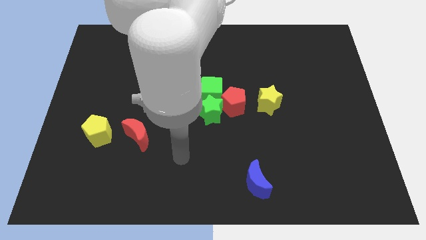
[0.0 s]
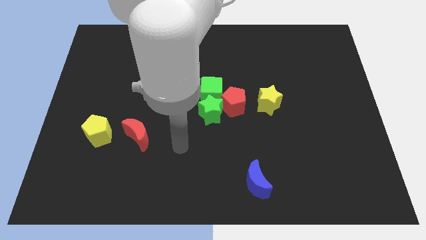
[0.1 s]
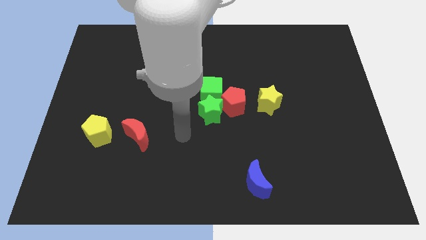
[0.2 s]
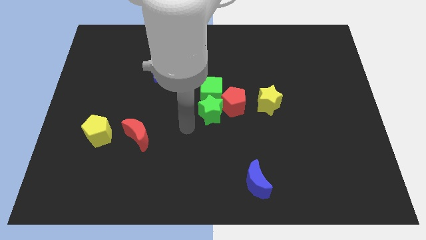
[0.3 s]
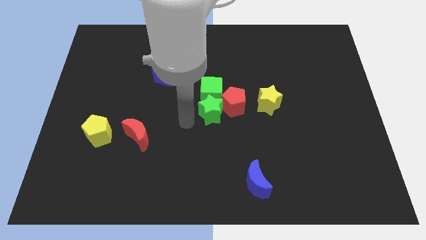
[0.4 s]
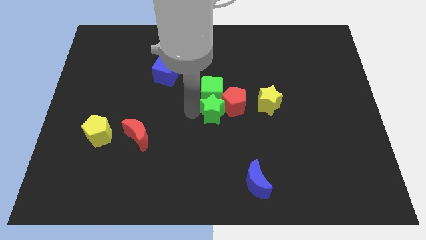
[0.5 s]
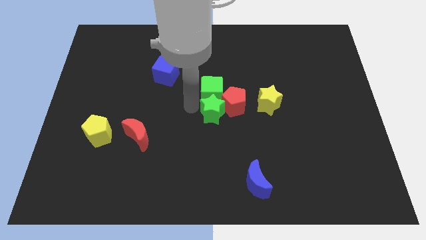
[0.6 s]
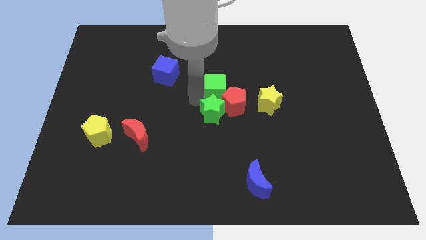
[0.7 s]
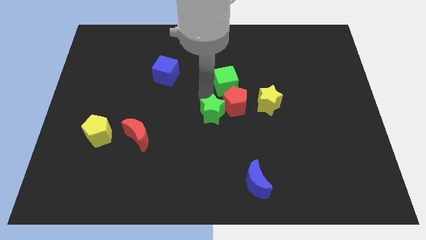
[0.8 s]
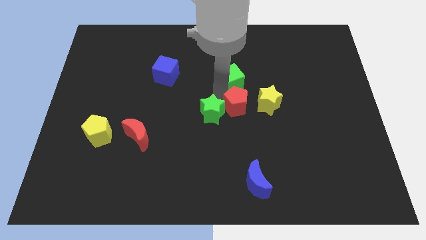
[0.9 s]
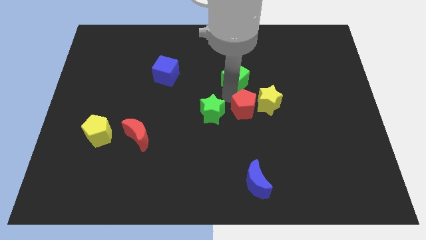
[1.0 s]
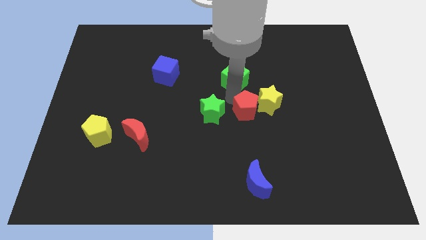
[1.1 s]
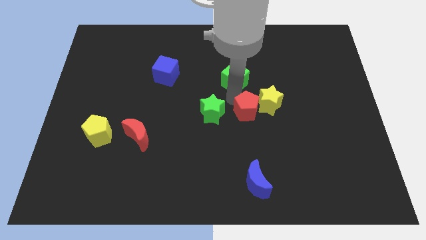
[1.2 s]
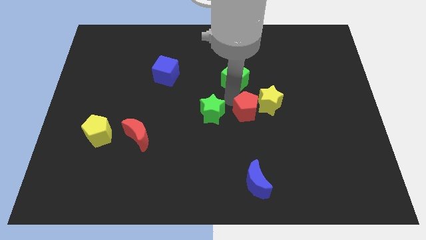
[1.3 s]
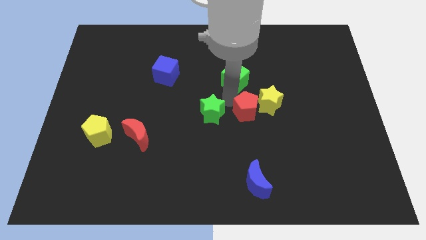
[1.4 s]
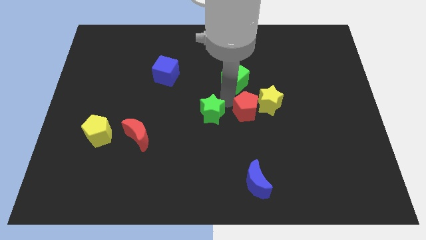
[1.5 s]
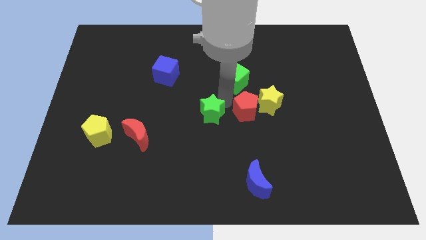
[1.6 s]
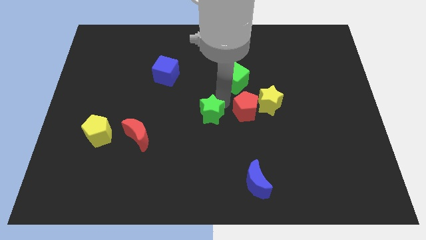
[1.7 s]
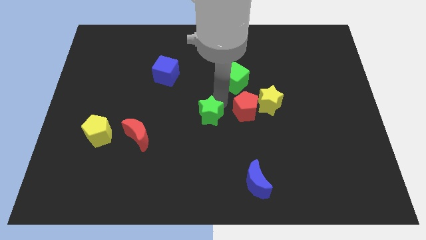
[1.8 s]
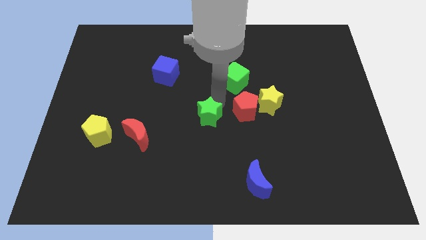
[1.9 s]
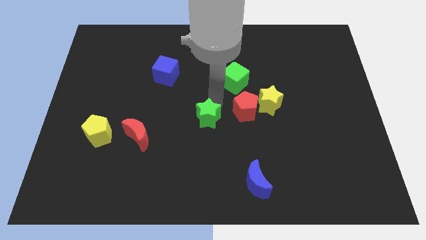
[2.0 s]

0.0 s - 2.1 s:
pull the green star apart from the green cube and red pentagon

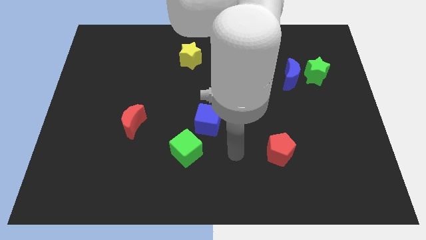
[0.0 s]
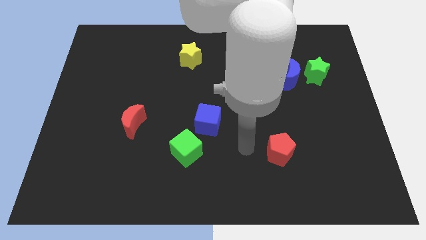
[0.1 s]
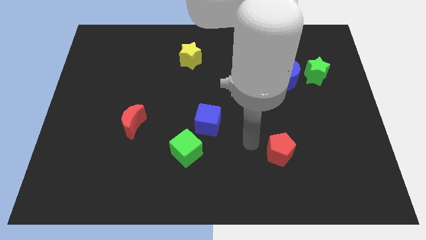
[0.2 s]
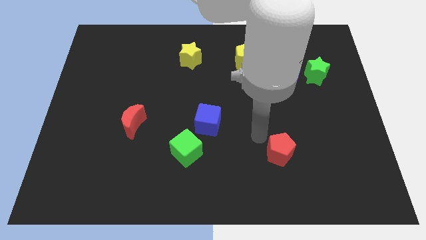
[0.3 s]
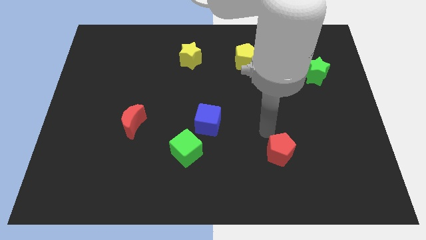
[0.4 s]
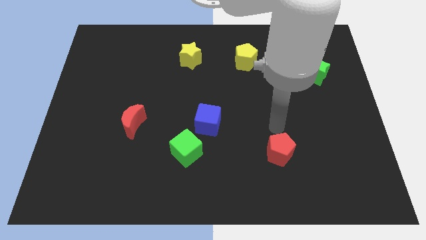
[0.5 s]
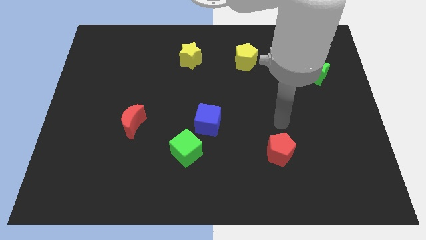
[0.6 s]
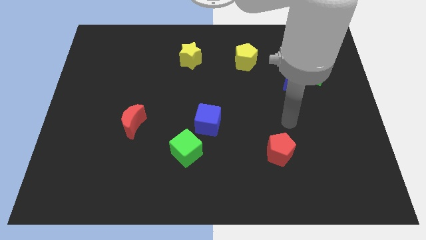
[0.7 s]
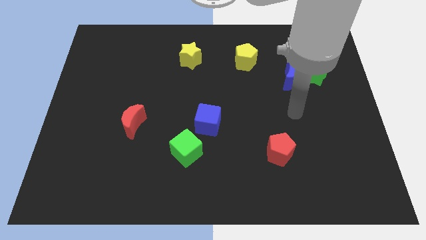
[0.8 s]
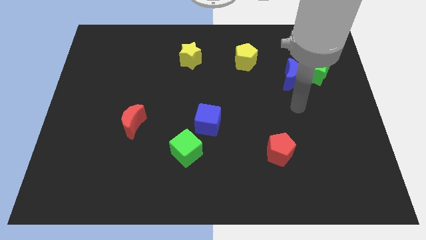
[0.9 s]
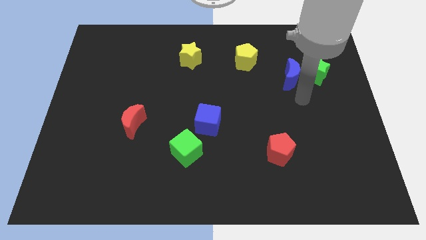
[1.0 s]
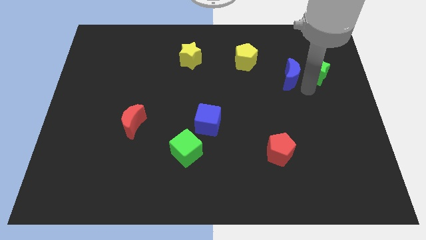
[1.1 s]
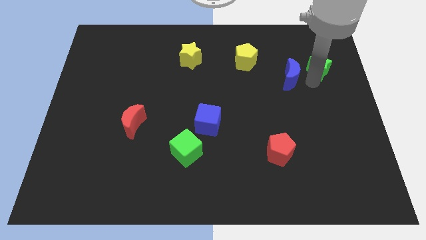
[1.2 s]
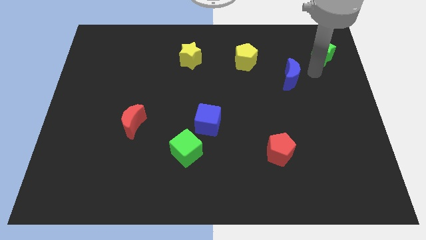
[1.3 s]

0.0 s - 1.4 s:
move the blue moon away from the green star

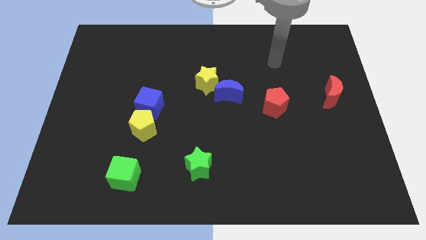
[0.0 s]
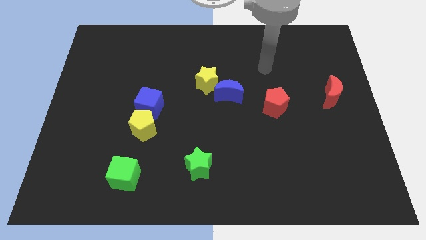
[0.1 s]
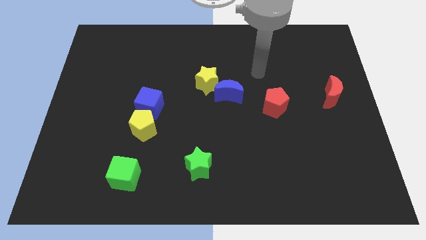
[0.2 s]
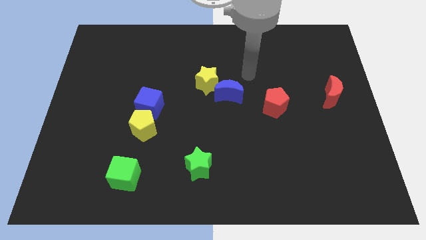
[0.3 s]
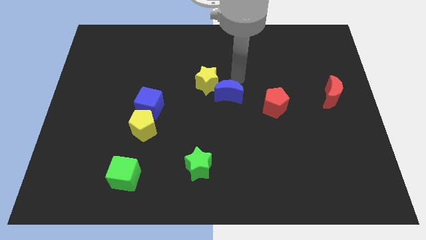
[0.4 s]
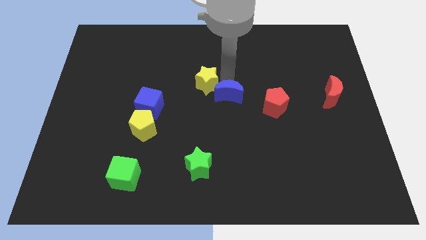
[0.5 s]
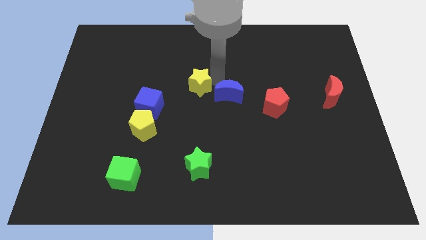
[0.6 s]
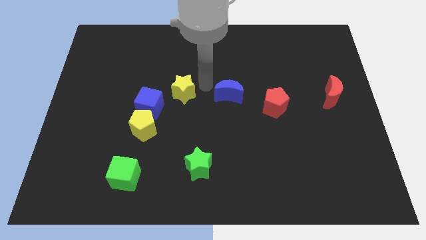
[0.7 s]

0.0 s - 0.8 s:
pull the blue moon apart from the yellow star

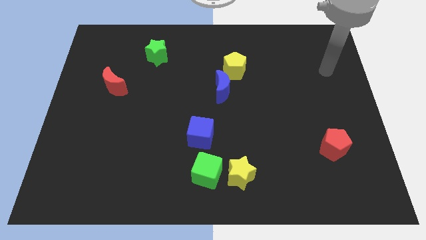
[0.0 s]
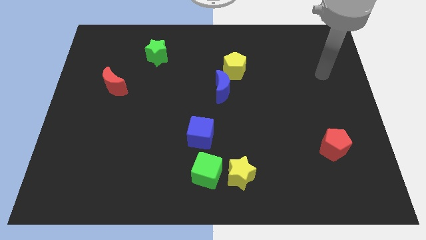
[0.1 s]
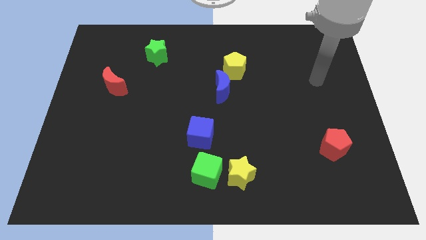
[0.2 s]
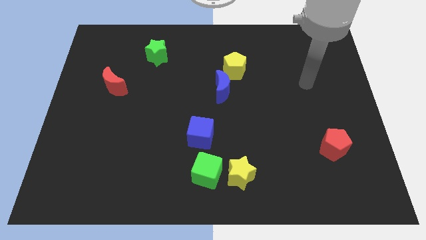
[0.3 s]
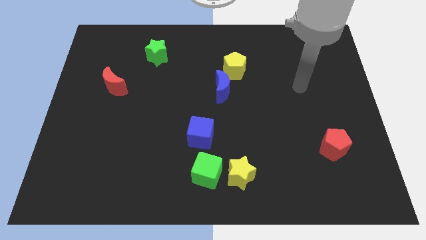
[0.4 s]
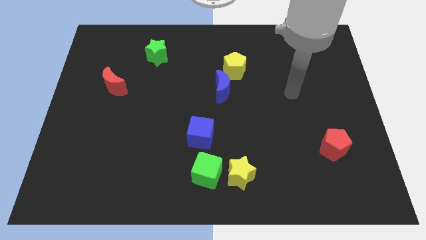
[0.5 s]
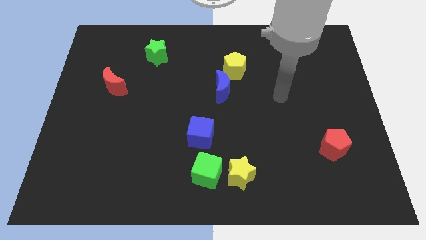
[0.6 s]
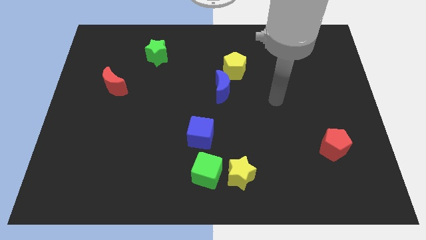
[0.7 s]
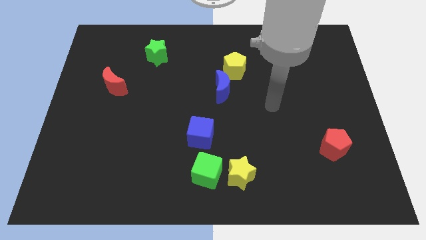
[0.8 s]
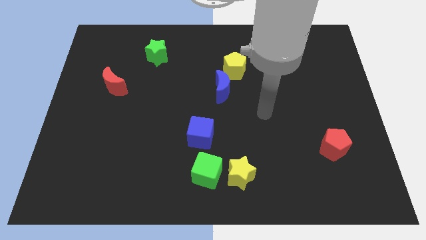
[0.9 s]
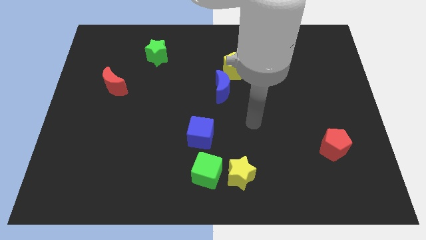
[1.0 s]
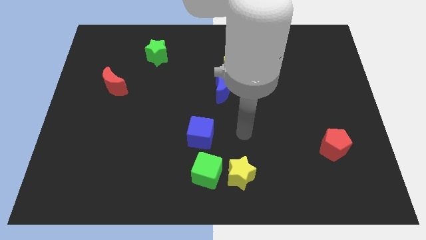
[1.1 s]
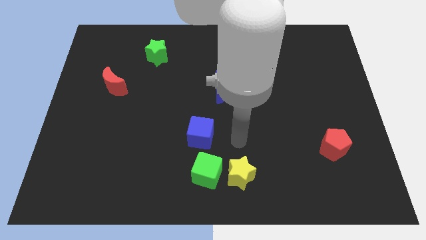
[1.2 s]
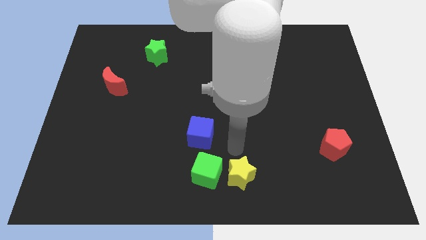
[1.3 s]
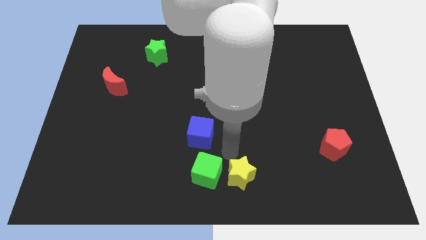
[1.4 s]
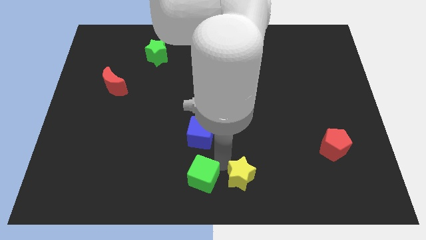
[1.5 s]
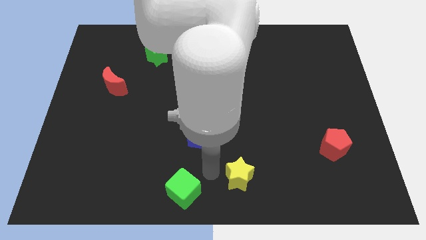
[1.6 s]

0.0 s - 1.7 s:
separate the yellow star from the green cube

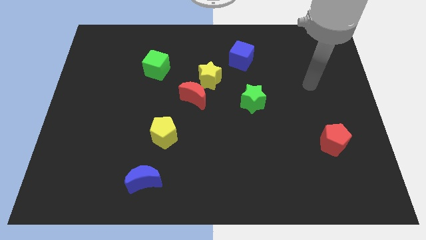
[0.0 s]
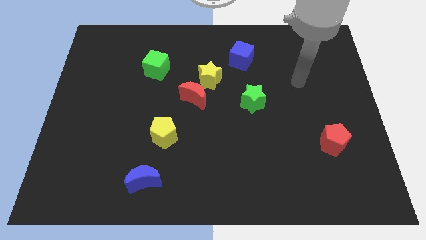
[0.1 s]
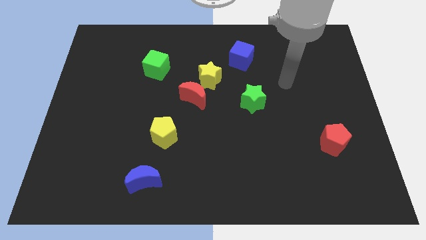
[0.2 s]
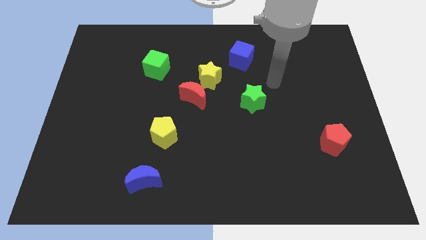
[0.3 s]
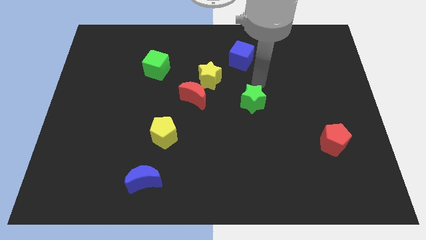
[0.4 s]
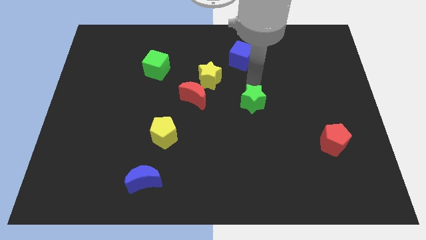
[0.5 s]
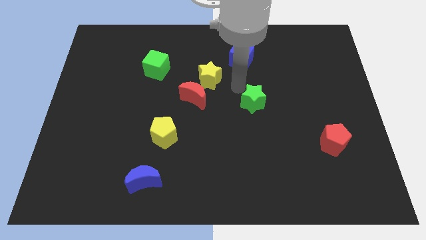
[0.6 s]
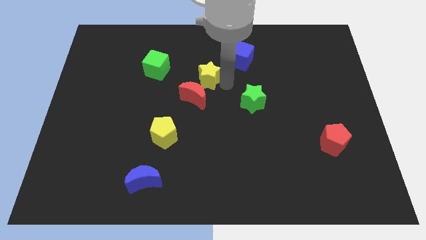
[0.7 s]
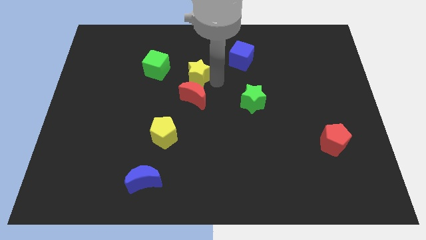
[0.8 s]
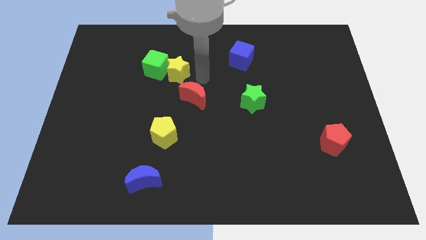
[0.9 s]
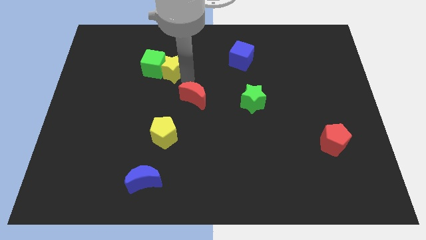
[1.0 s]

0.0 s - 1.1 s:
separate the red moon from the yellow star

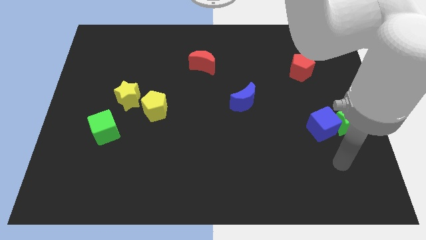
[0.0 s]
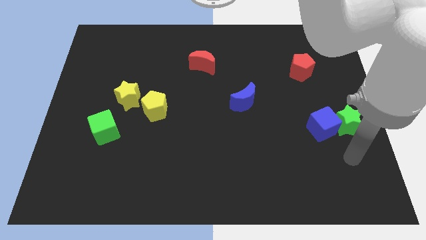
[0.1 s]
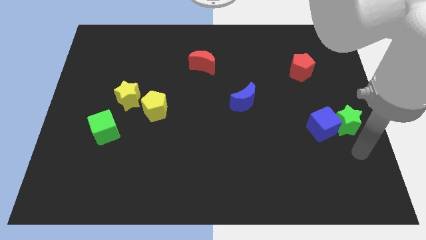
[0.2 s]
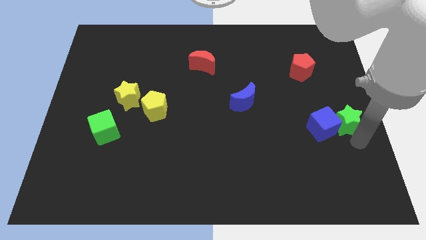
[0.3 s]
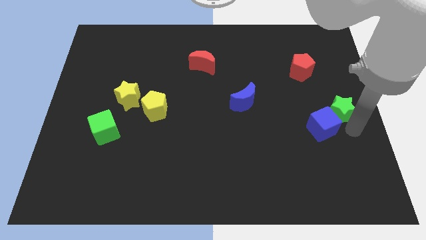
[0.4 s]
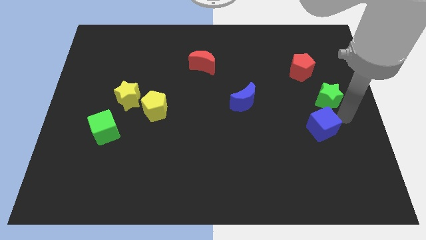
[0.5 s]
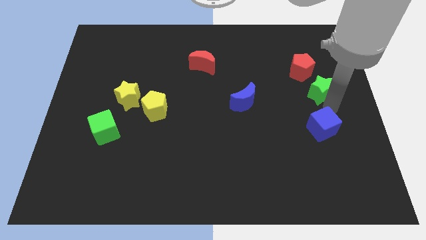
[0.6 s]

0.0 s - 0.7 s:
pull the blue cube apart from the green star

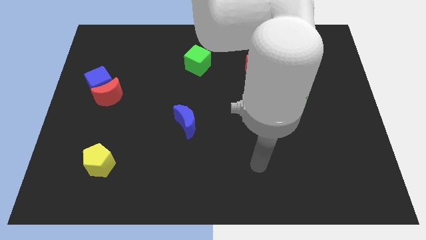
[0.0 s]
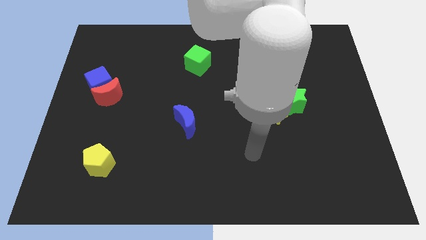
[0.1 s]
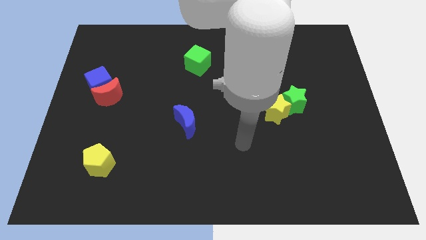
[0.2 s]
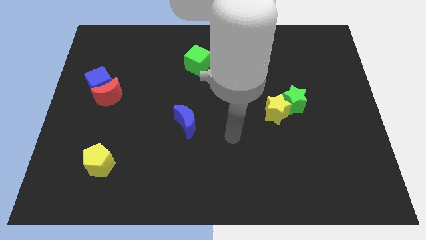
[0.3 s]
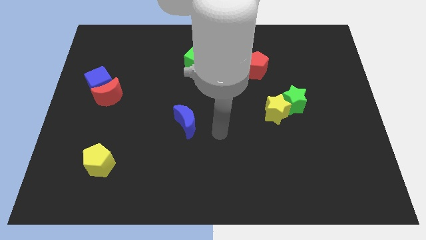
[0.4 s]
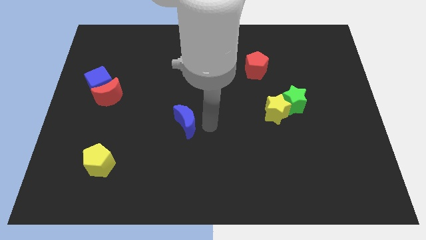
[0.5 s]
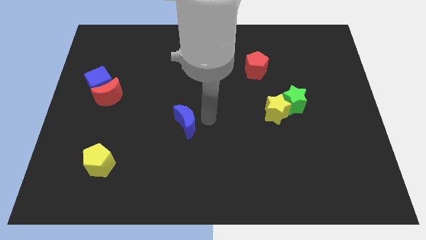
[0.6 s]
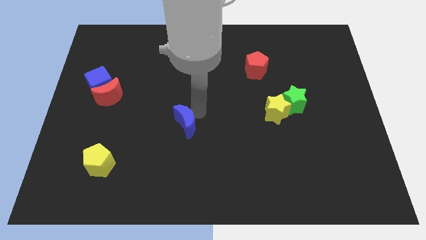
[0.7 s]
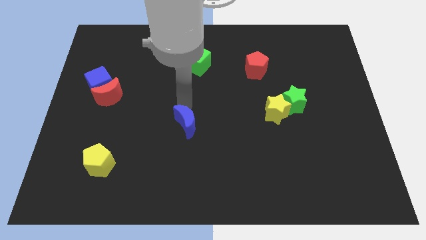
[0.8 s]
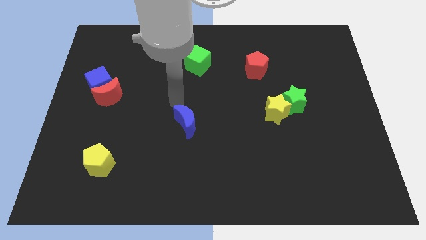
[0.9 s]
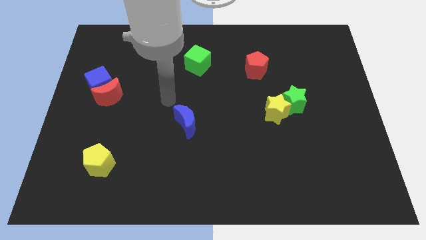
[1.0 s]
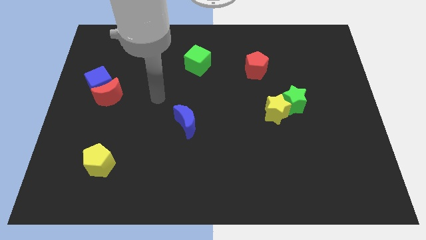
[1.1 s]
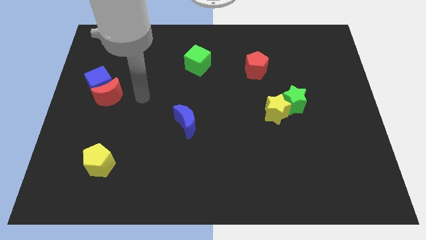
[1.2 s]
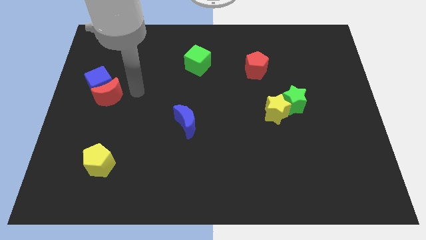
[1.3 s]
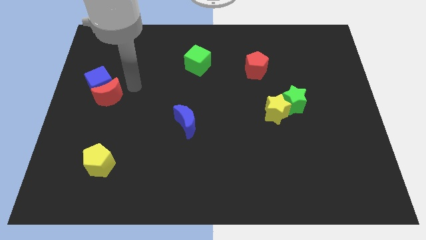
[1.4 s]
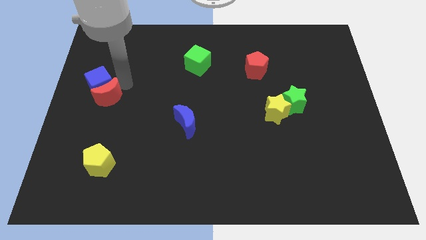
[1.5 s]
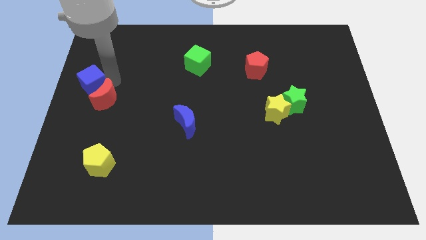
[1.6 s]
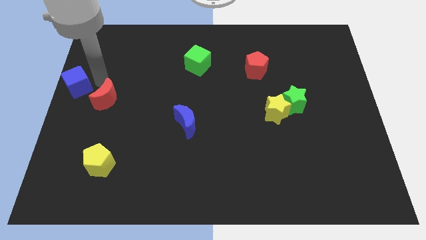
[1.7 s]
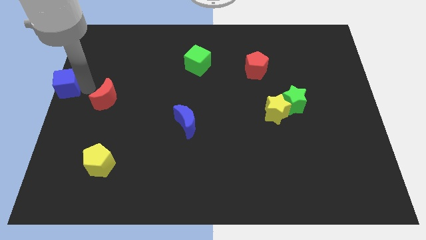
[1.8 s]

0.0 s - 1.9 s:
move the red moon away from the blue cube
